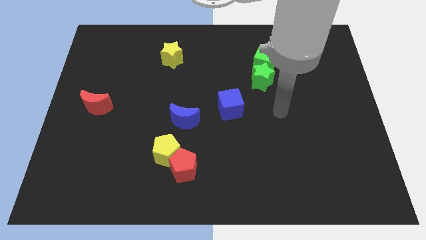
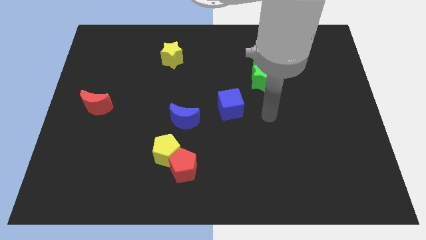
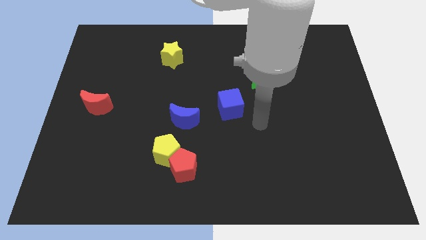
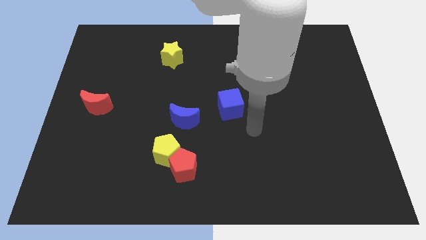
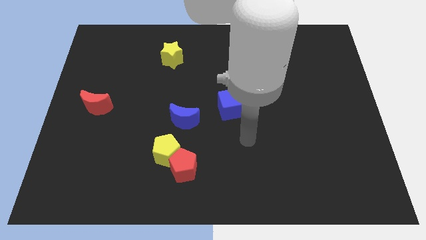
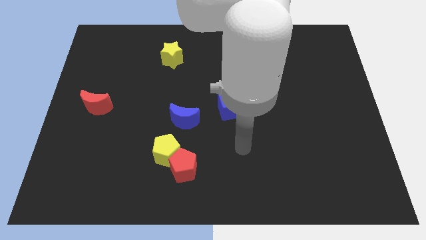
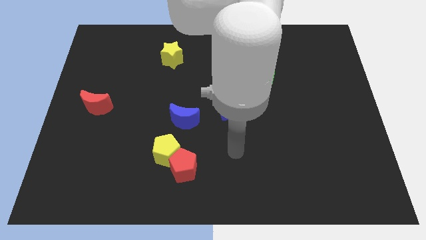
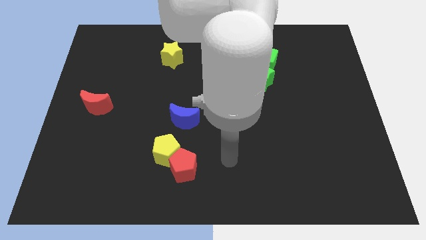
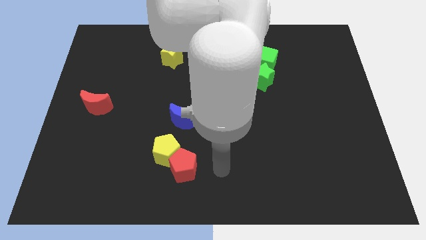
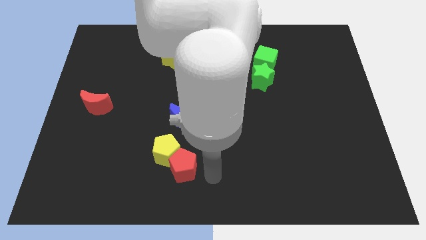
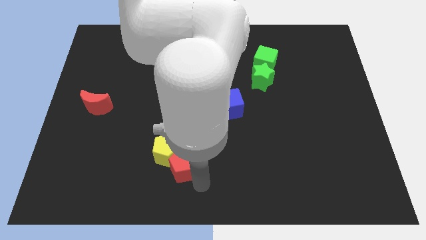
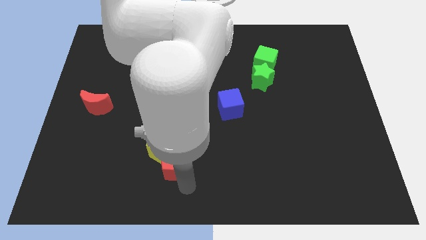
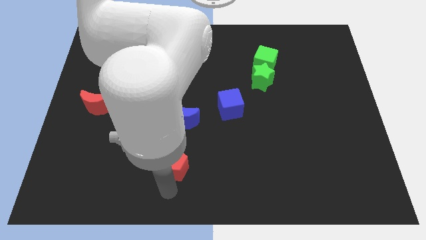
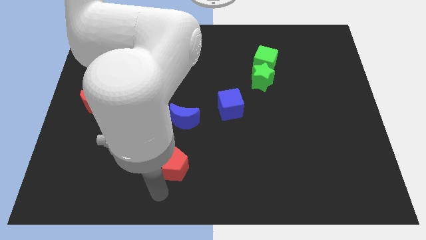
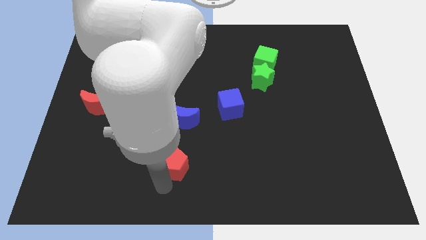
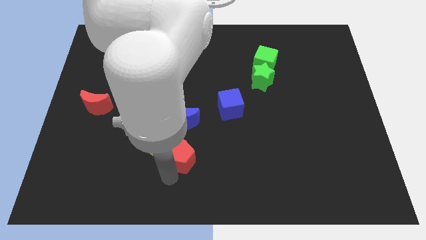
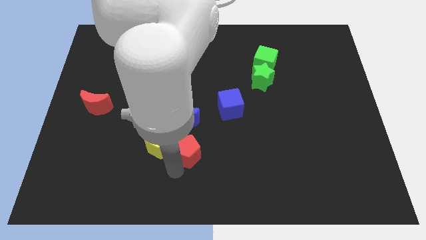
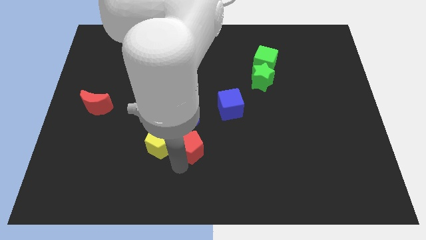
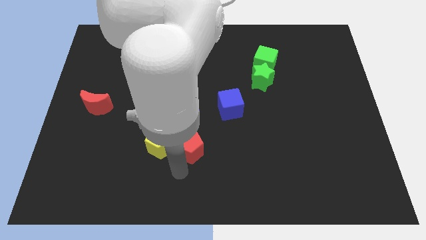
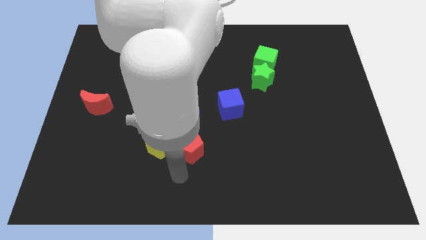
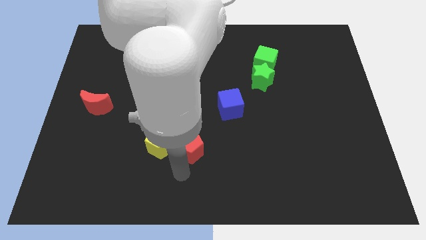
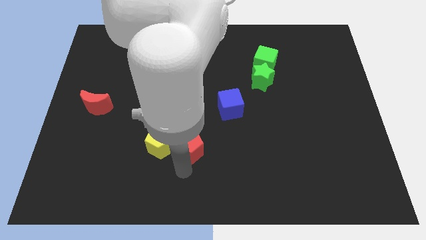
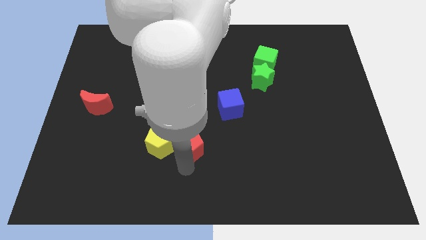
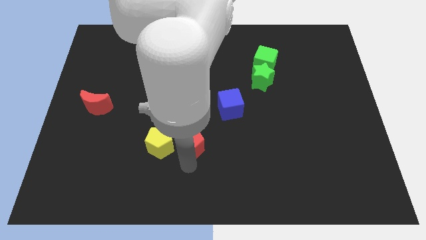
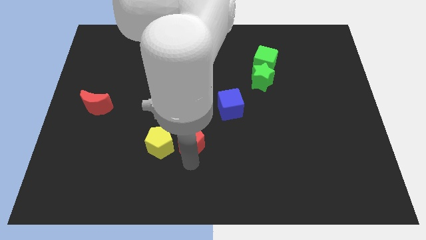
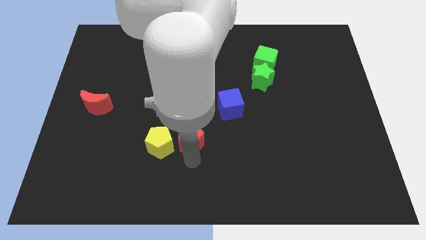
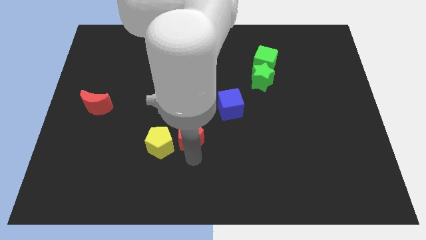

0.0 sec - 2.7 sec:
push the red pentagon up somewhat

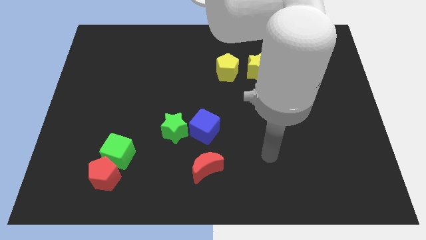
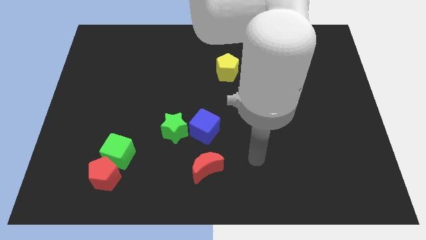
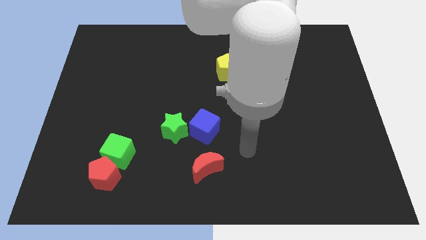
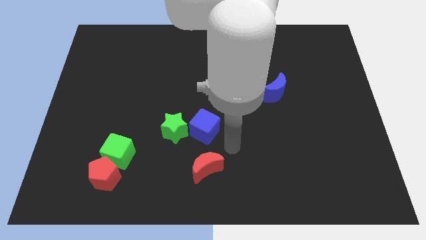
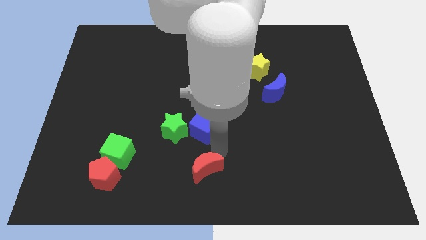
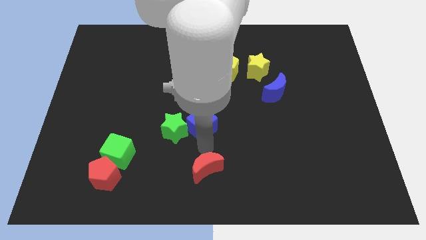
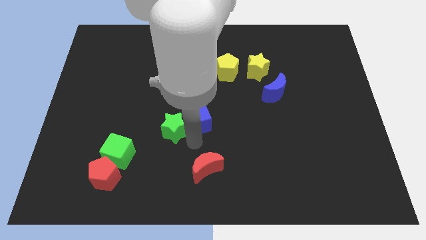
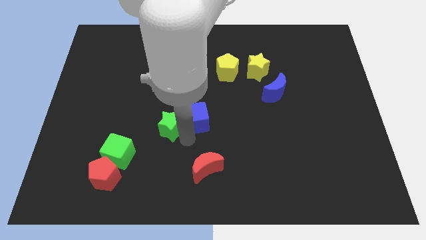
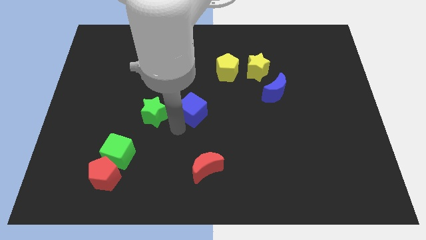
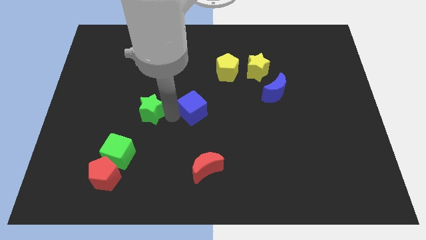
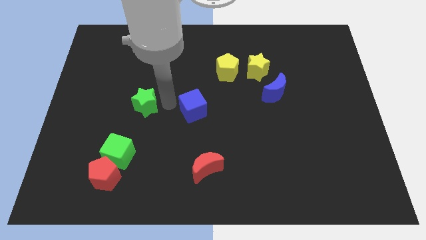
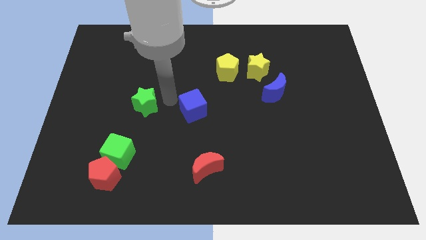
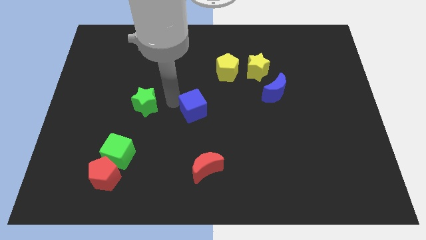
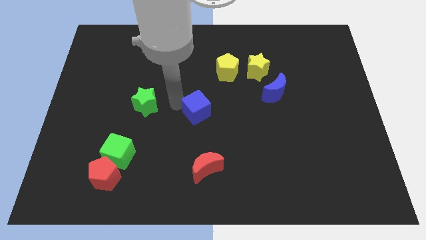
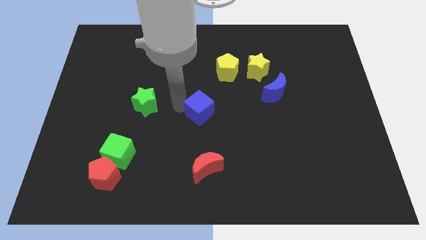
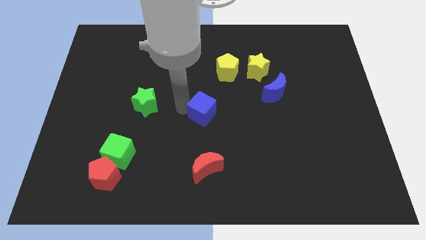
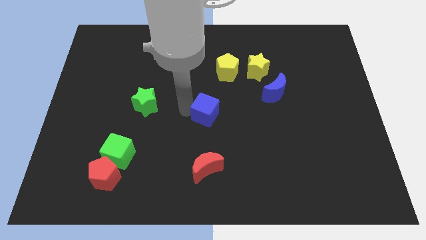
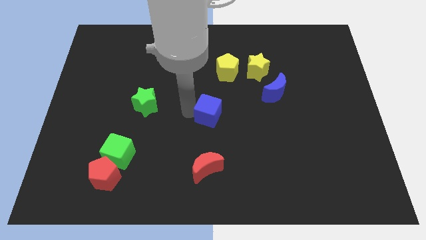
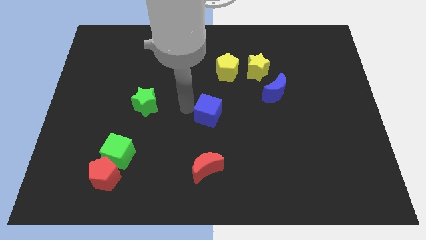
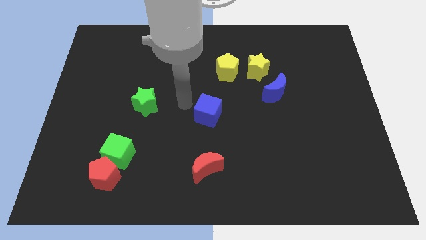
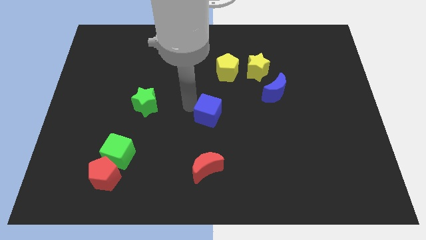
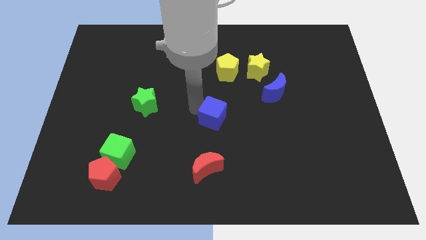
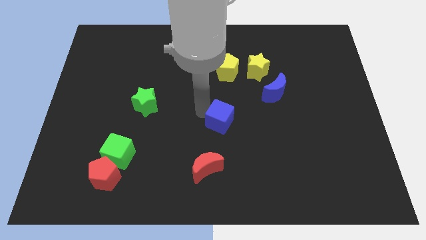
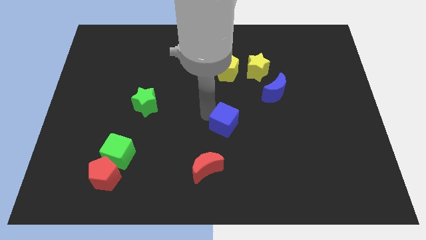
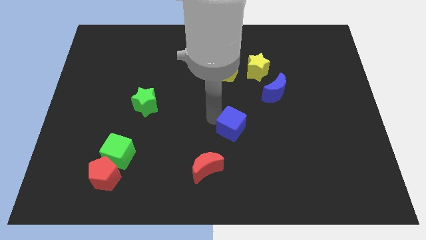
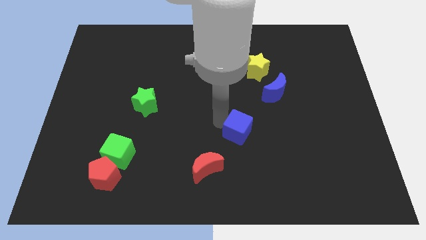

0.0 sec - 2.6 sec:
slightly push the blue cube right

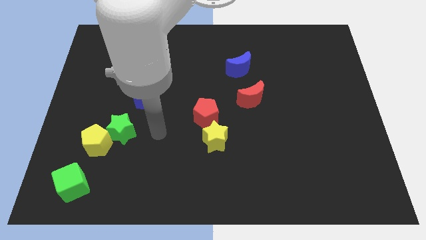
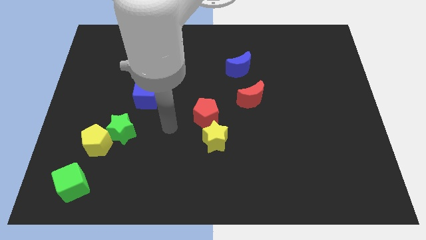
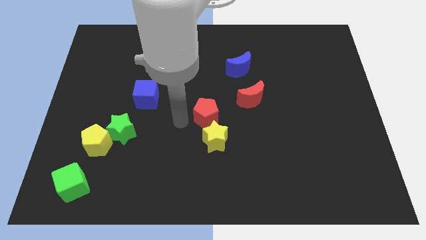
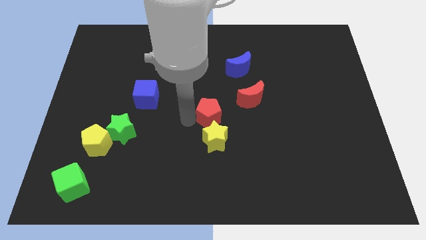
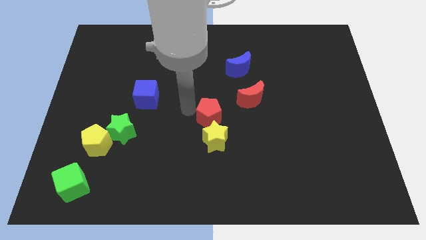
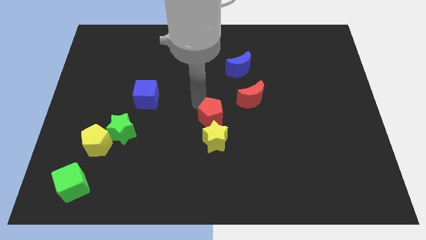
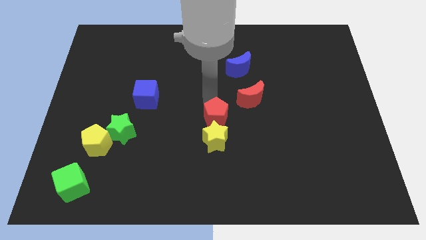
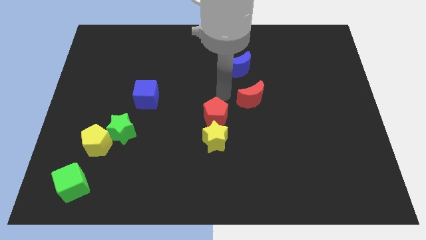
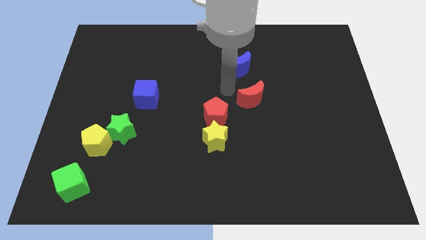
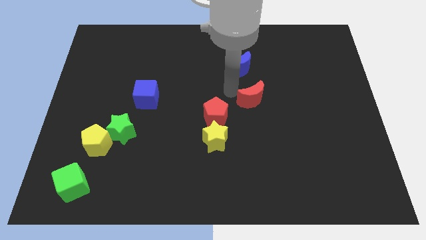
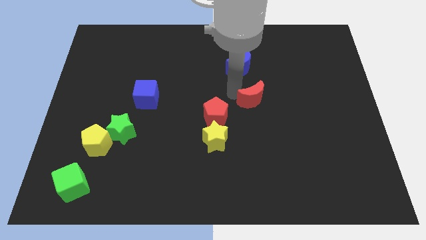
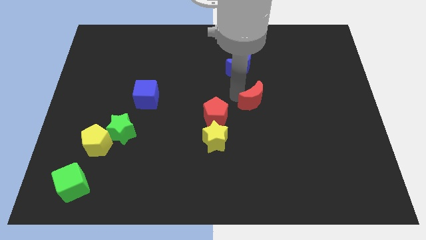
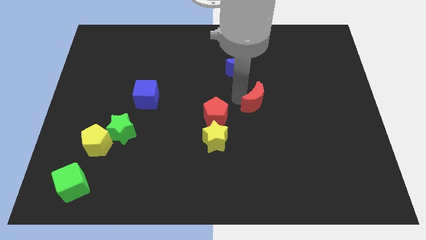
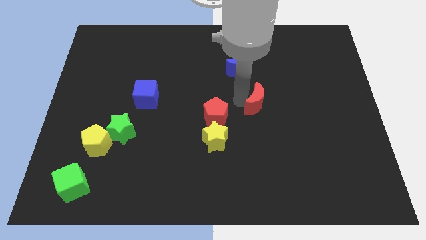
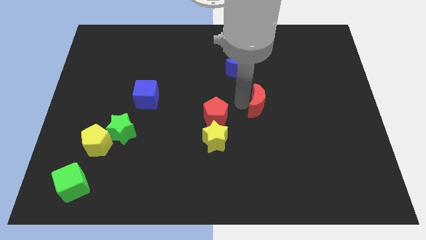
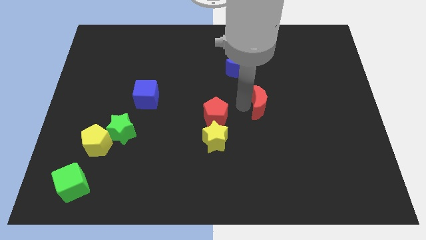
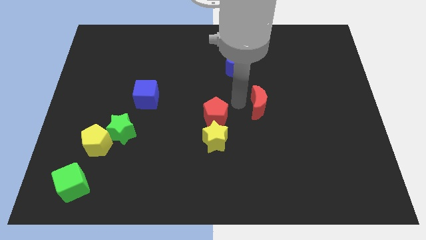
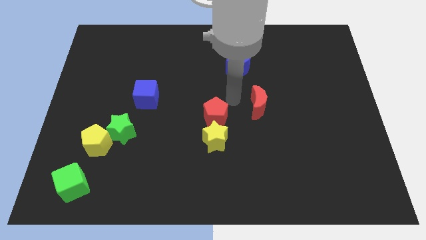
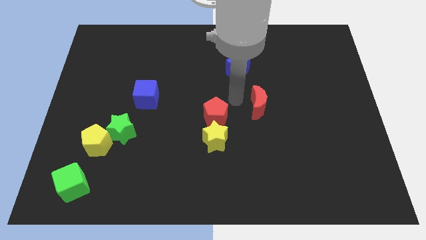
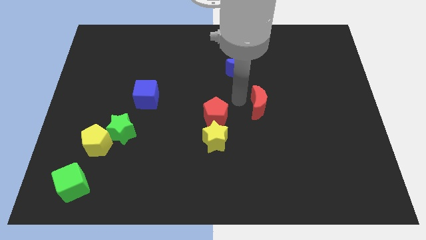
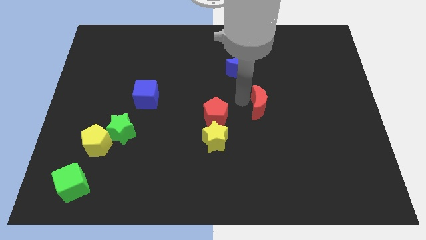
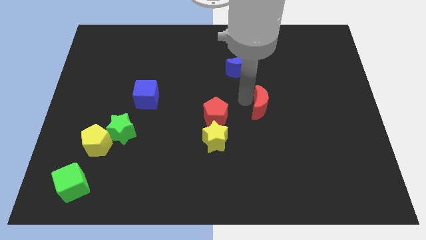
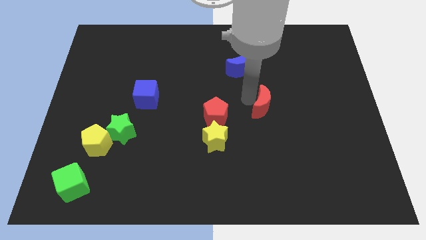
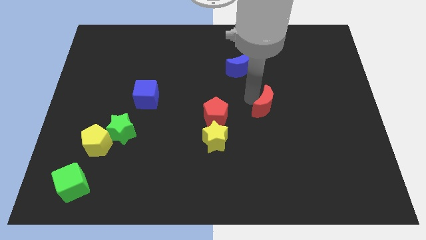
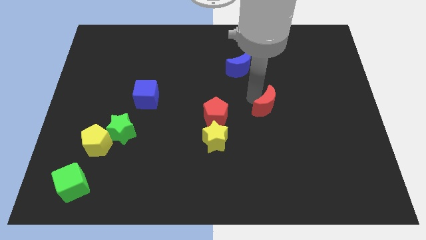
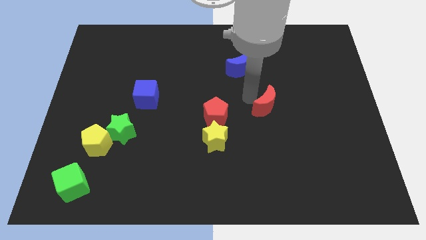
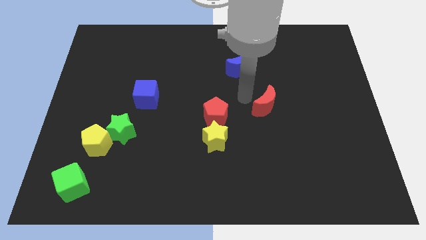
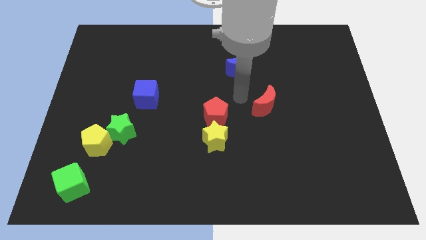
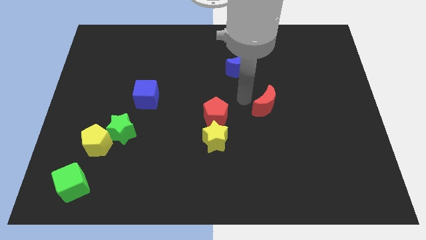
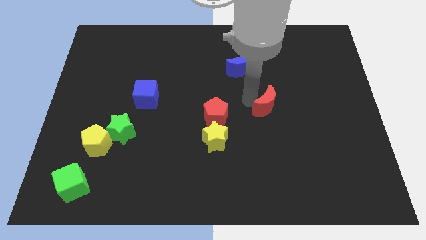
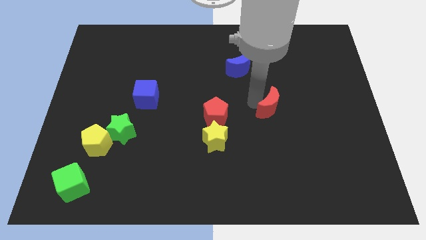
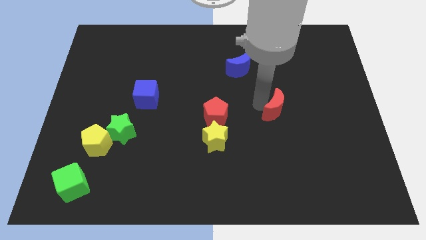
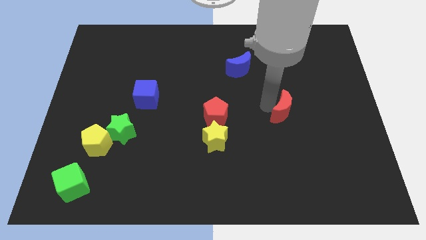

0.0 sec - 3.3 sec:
slightly slide the red moon downwards and right diagonally
